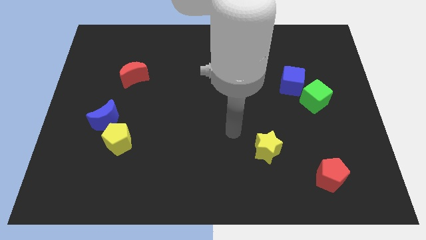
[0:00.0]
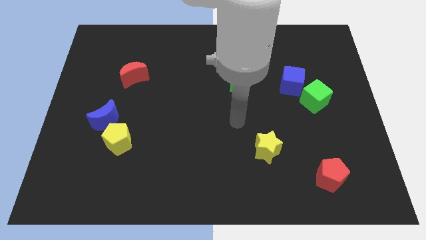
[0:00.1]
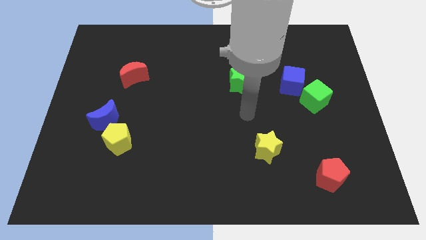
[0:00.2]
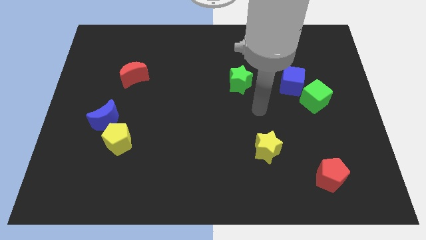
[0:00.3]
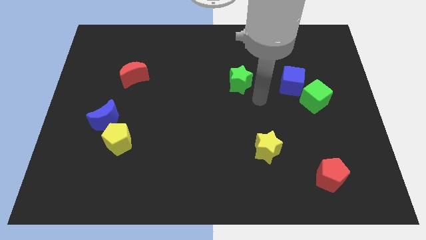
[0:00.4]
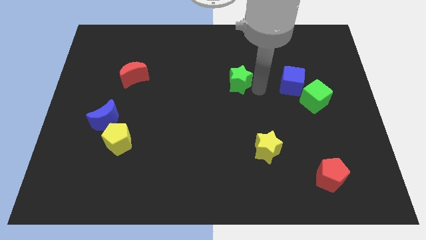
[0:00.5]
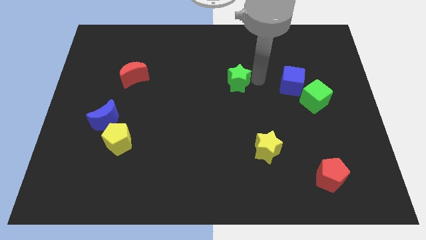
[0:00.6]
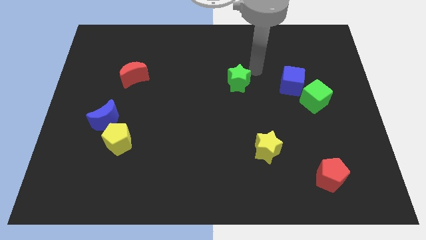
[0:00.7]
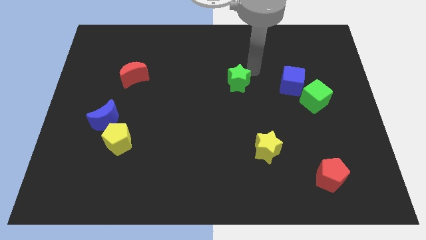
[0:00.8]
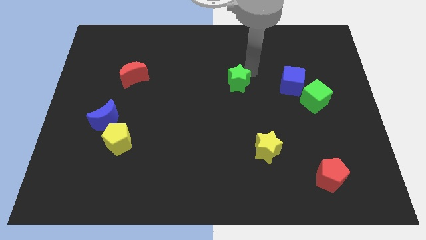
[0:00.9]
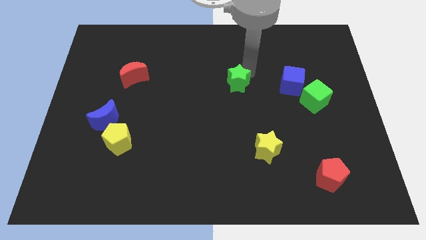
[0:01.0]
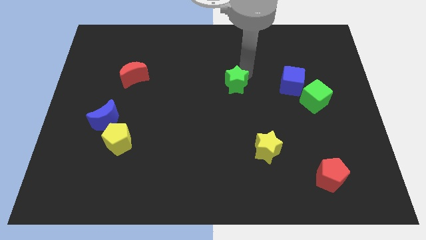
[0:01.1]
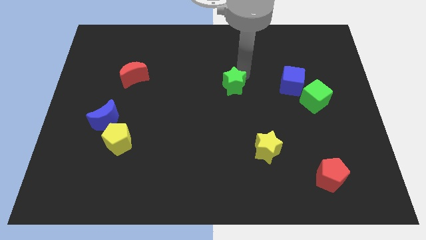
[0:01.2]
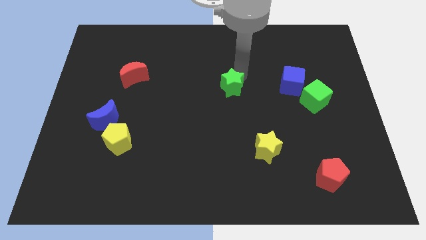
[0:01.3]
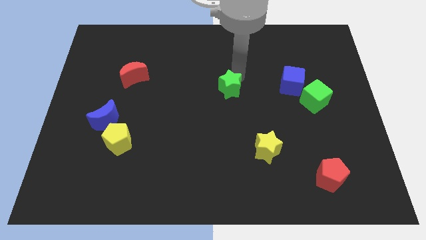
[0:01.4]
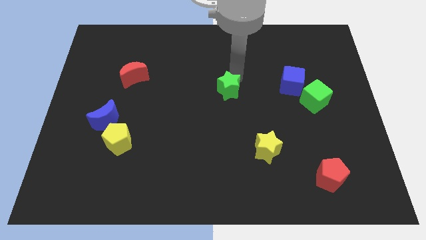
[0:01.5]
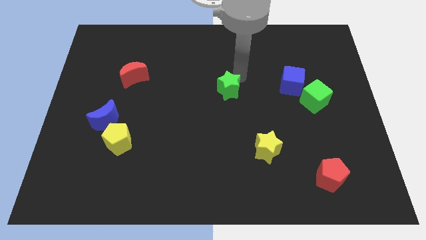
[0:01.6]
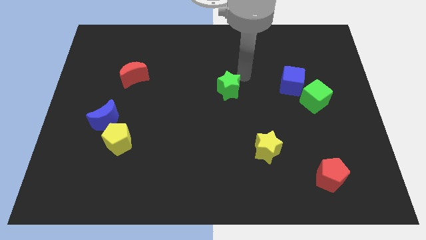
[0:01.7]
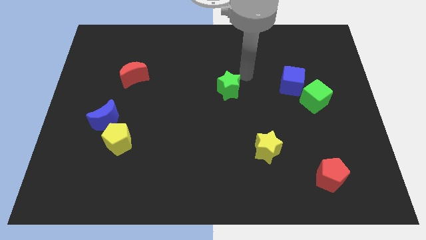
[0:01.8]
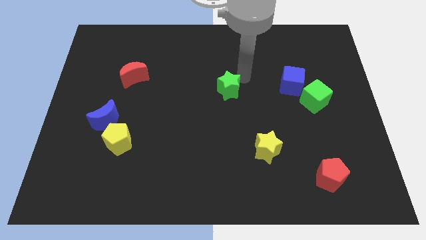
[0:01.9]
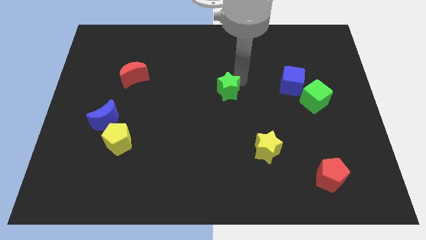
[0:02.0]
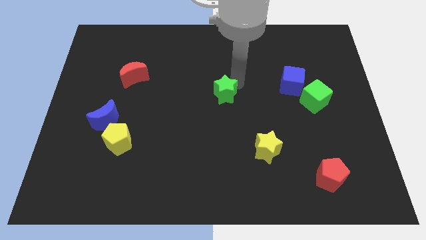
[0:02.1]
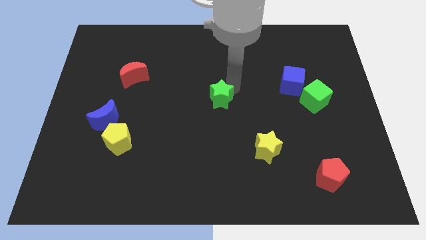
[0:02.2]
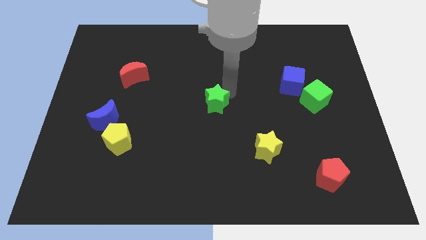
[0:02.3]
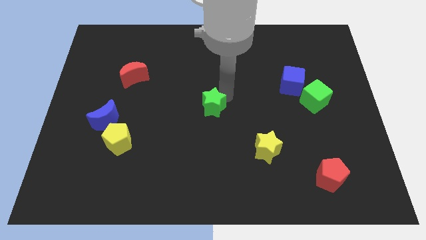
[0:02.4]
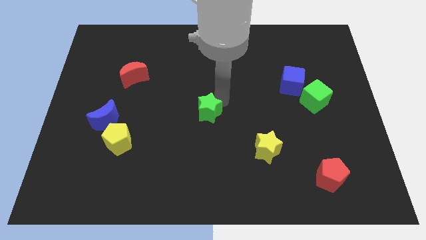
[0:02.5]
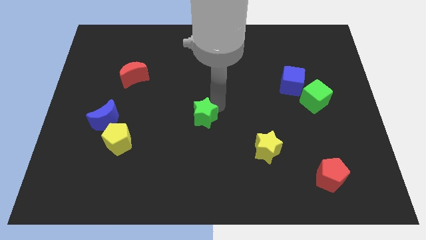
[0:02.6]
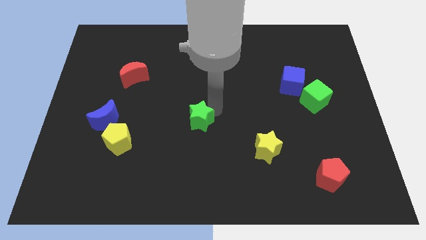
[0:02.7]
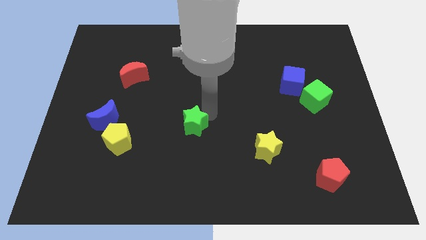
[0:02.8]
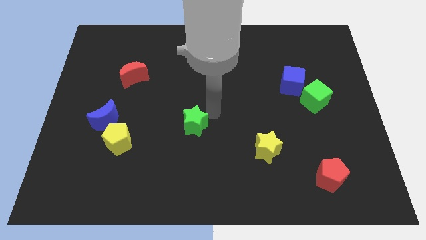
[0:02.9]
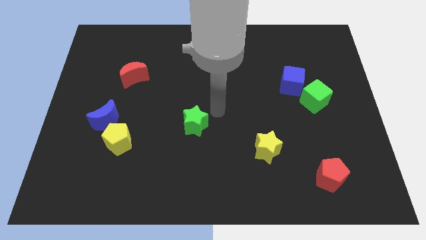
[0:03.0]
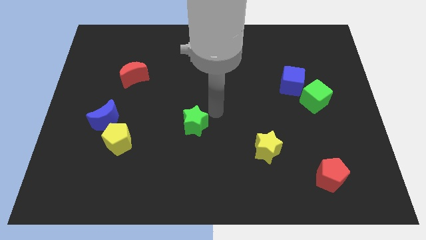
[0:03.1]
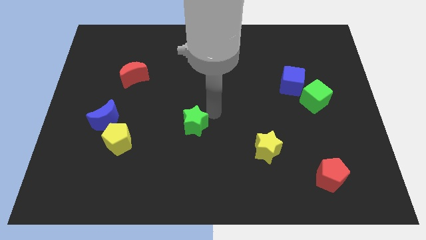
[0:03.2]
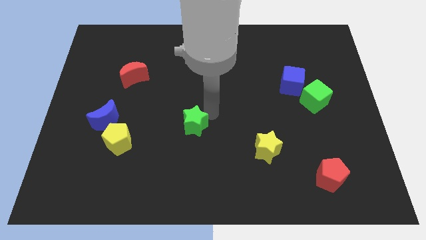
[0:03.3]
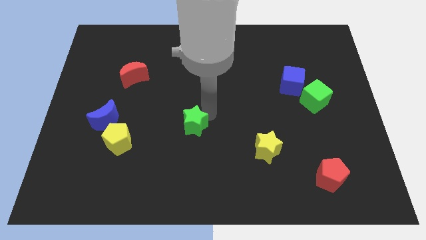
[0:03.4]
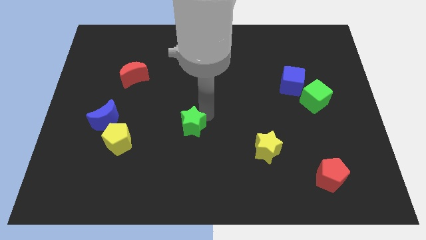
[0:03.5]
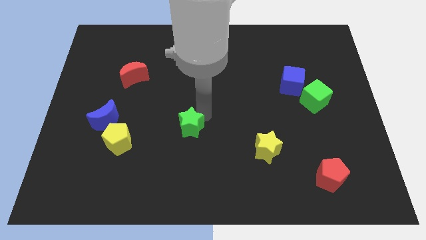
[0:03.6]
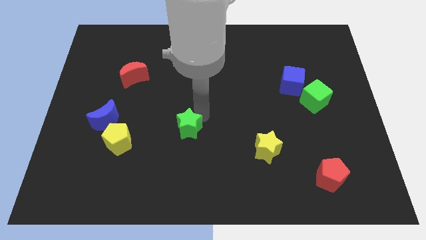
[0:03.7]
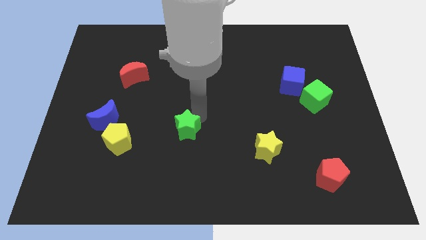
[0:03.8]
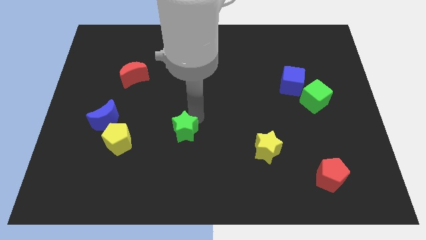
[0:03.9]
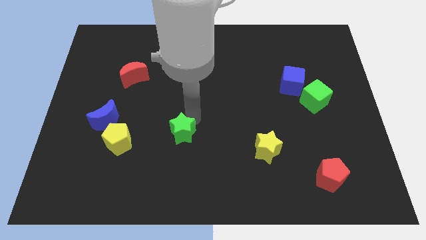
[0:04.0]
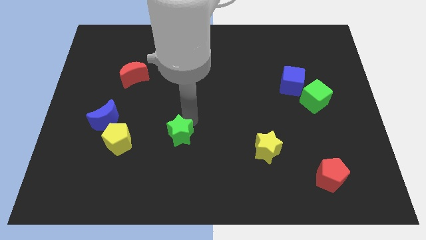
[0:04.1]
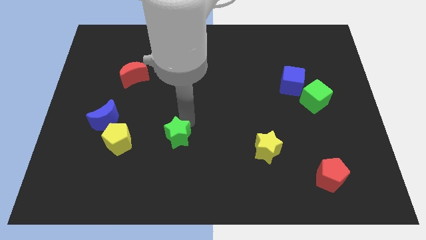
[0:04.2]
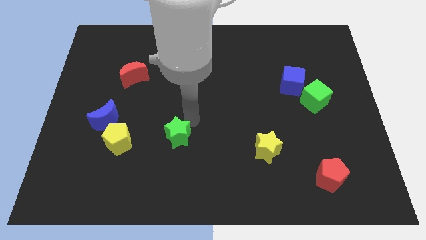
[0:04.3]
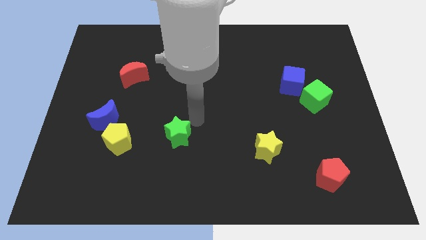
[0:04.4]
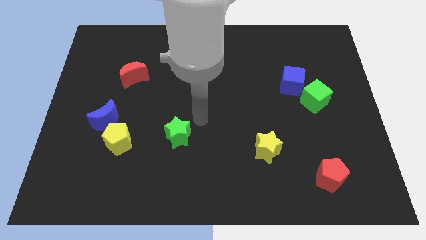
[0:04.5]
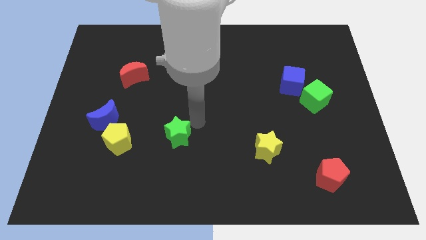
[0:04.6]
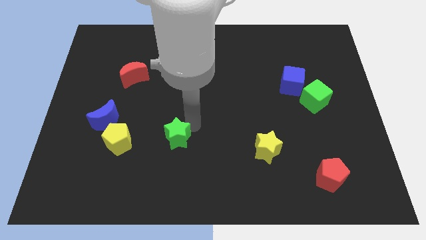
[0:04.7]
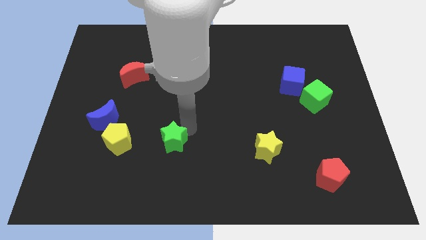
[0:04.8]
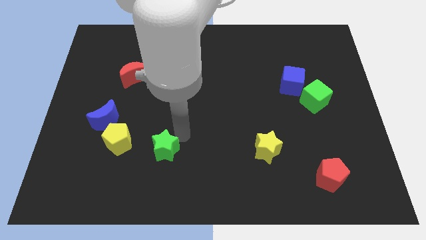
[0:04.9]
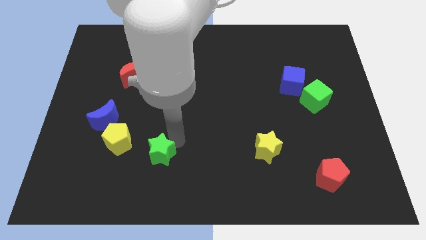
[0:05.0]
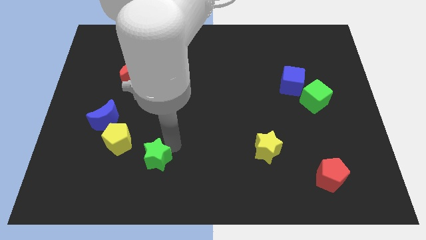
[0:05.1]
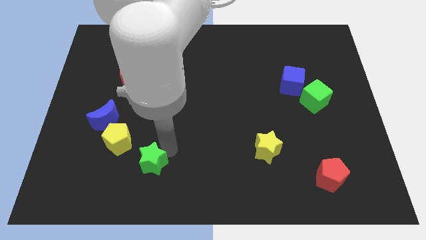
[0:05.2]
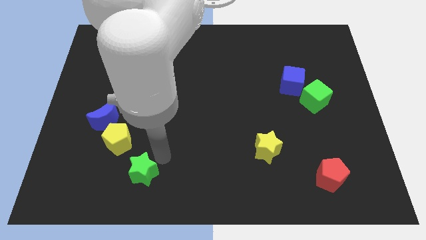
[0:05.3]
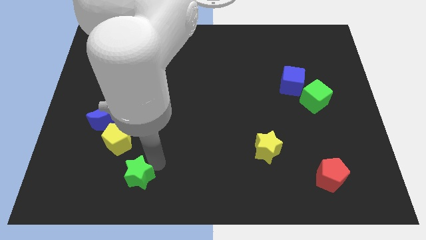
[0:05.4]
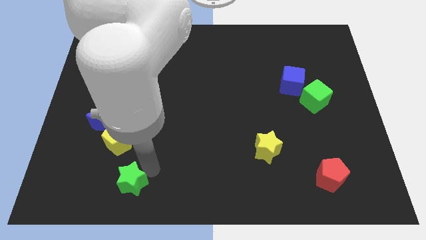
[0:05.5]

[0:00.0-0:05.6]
move the green star to the bottom side of the yellow pentagon

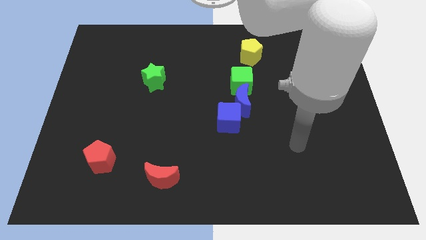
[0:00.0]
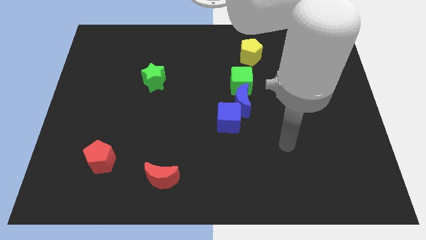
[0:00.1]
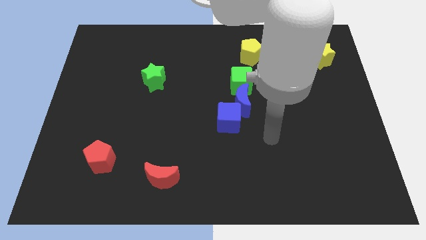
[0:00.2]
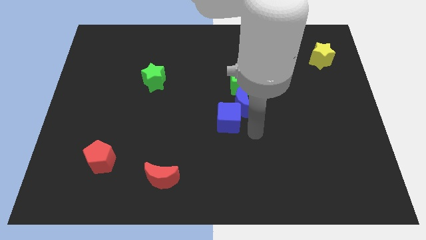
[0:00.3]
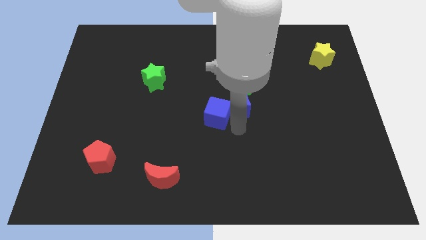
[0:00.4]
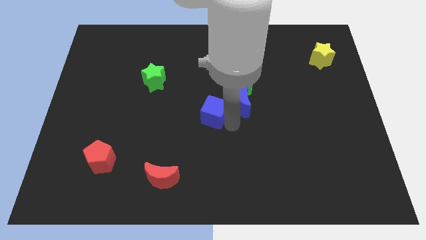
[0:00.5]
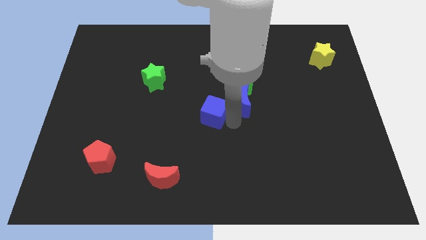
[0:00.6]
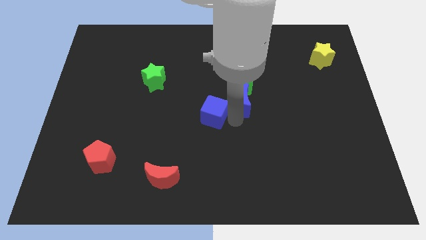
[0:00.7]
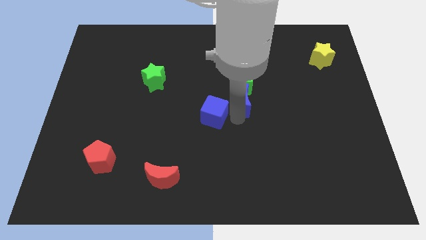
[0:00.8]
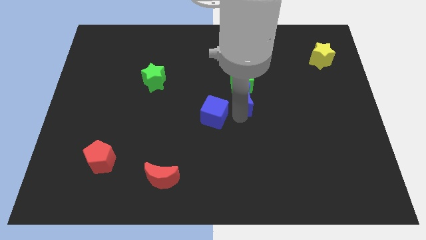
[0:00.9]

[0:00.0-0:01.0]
push the blue moon to the bottom side of the yellow pentagon

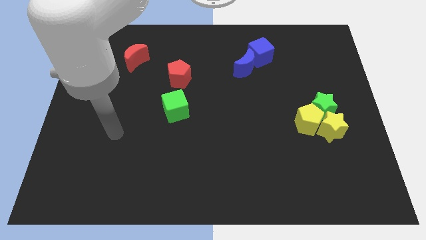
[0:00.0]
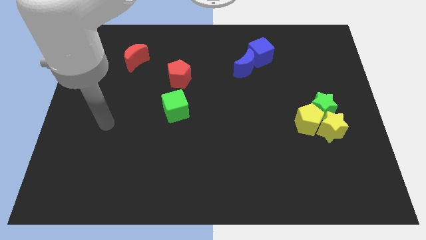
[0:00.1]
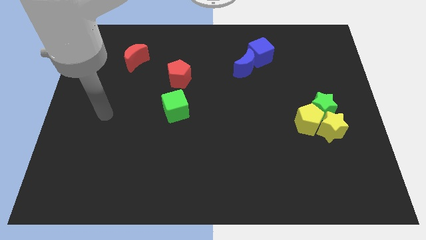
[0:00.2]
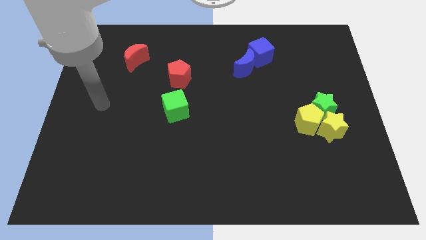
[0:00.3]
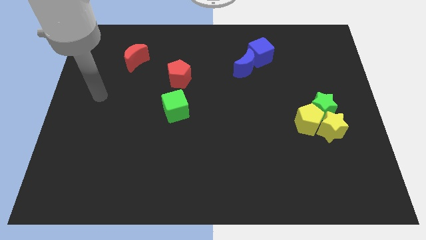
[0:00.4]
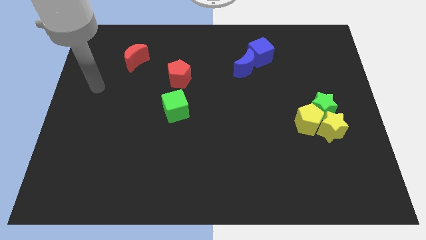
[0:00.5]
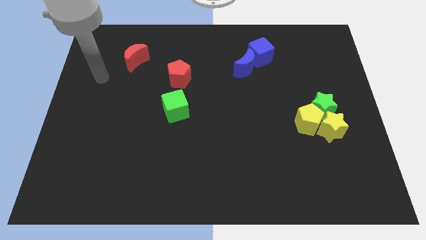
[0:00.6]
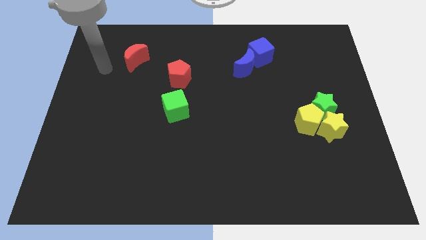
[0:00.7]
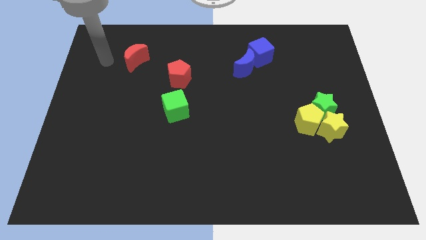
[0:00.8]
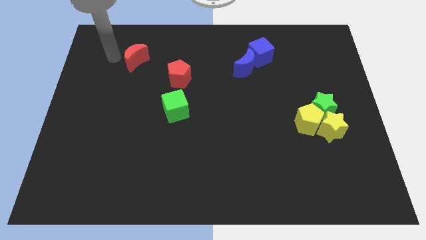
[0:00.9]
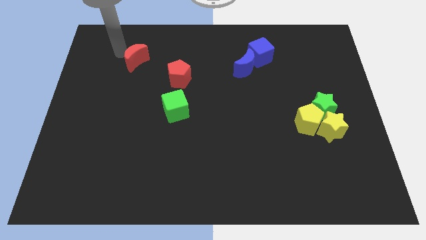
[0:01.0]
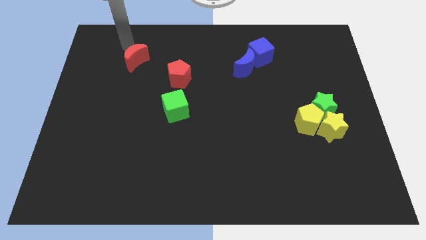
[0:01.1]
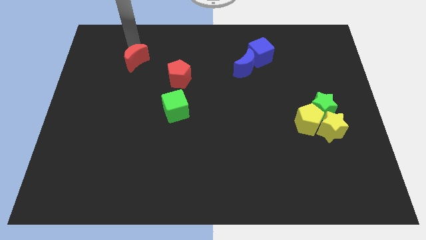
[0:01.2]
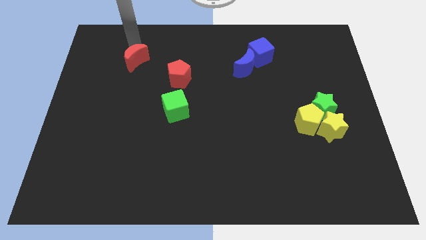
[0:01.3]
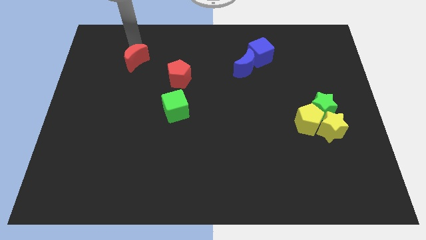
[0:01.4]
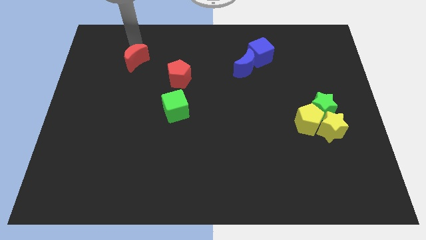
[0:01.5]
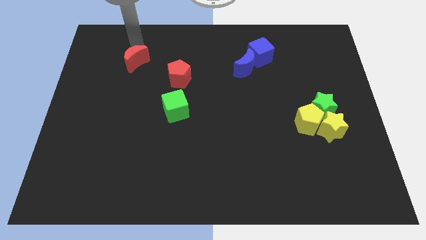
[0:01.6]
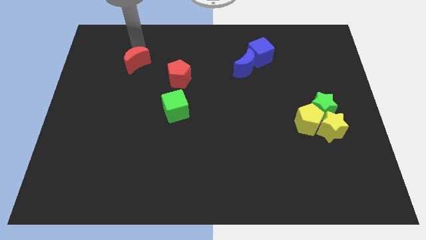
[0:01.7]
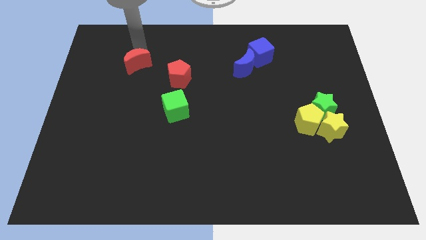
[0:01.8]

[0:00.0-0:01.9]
put the red moon just left of the red pentagon
